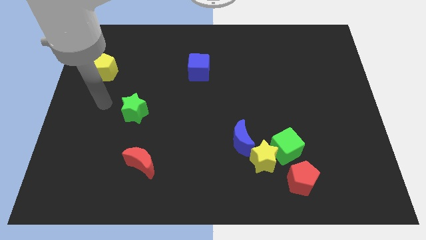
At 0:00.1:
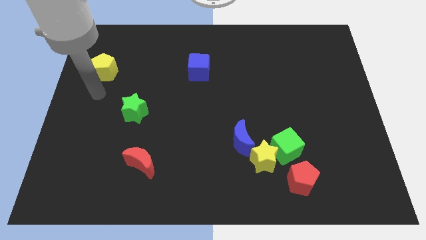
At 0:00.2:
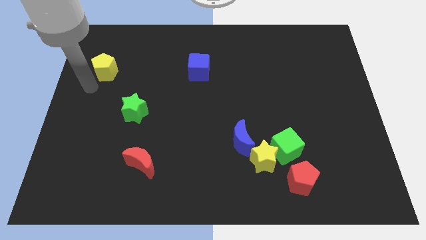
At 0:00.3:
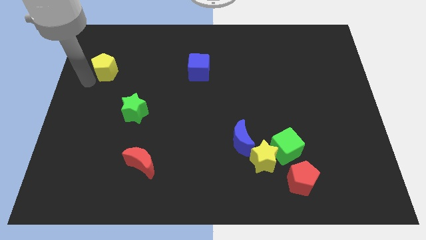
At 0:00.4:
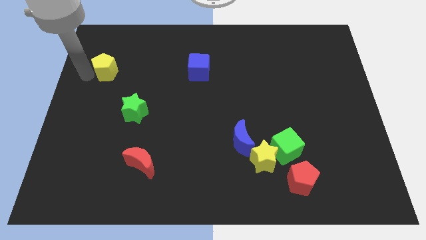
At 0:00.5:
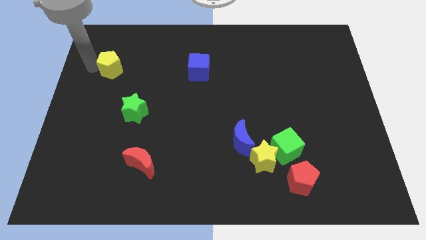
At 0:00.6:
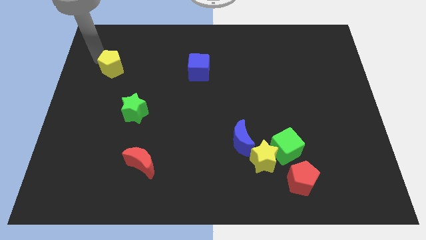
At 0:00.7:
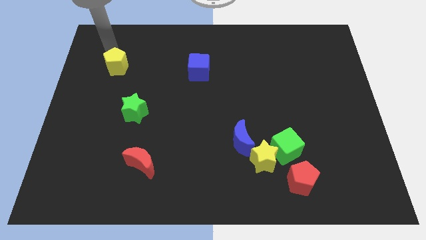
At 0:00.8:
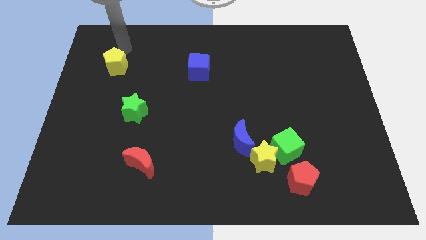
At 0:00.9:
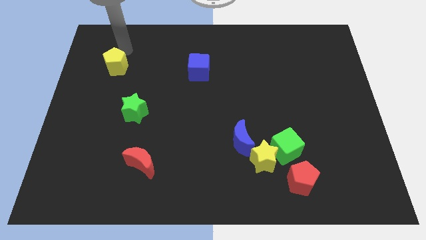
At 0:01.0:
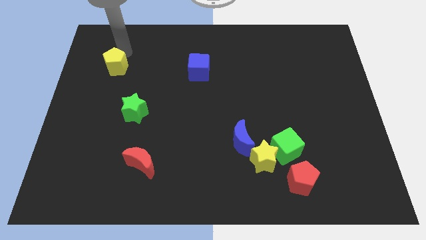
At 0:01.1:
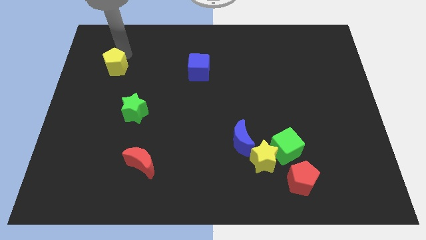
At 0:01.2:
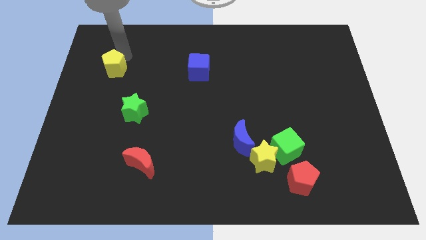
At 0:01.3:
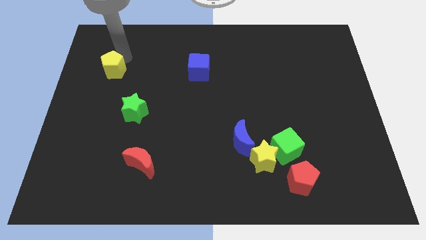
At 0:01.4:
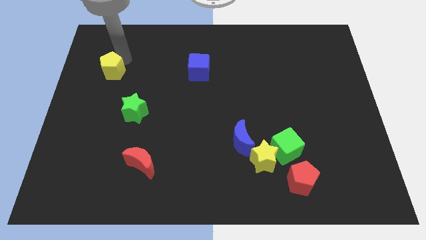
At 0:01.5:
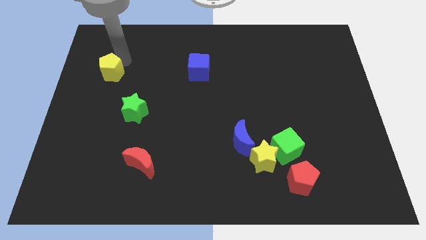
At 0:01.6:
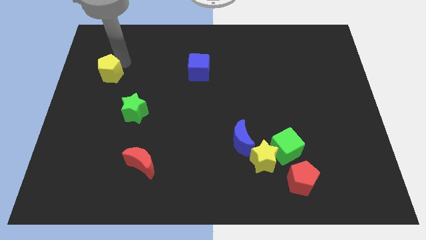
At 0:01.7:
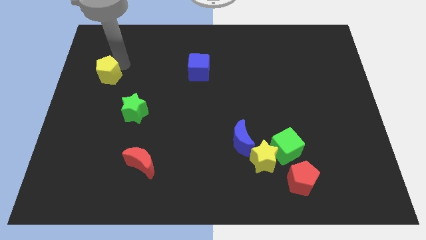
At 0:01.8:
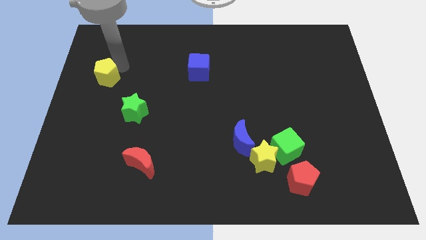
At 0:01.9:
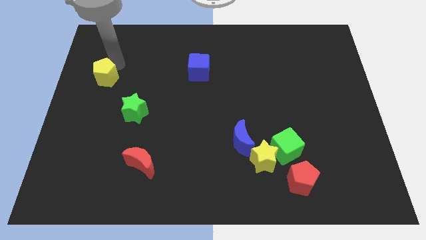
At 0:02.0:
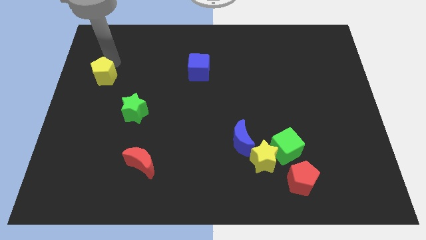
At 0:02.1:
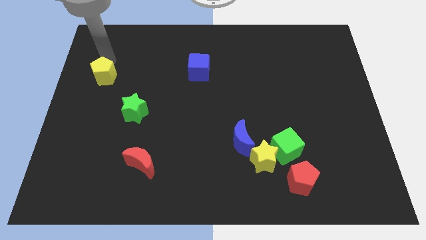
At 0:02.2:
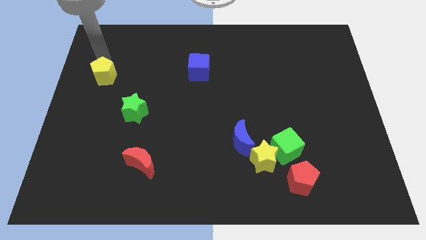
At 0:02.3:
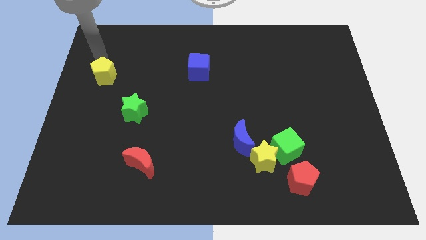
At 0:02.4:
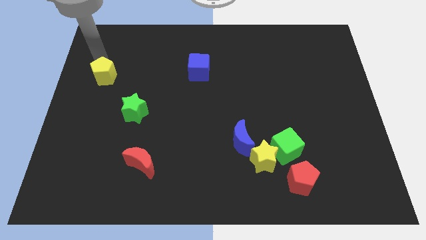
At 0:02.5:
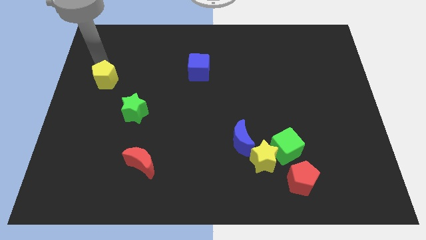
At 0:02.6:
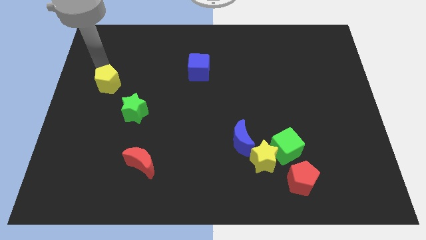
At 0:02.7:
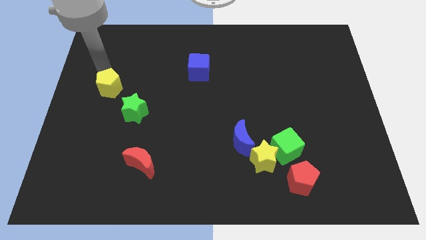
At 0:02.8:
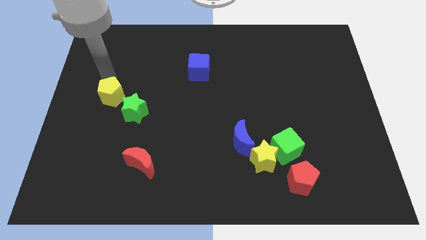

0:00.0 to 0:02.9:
slightly push the yellow pentagon downwards

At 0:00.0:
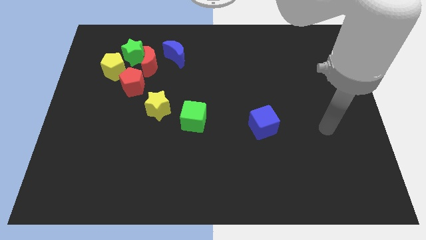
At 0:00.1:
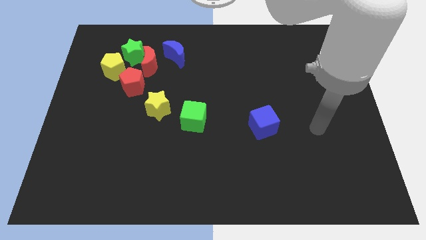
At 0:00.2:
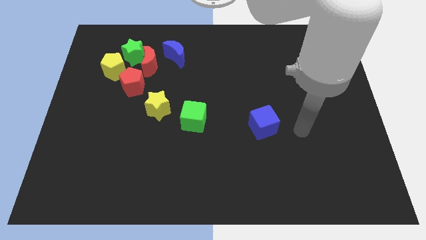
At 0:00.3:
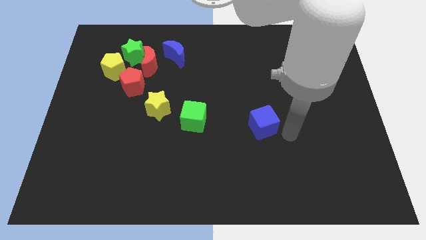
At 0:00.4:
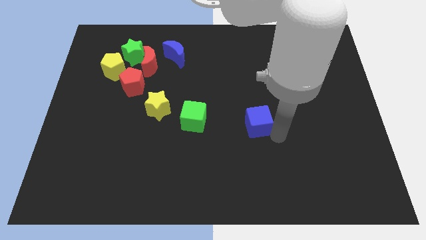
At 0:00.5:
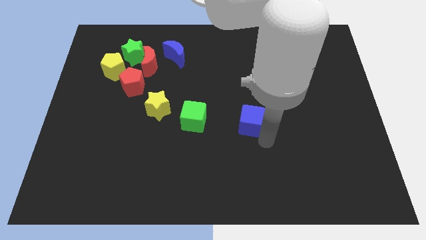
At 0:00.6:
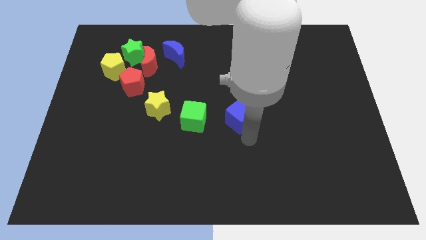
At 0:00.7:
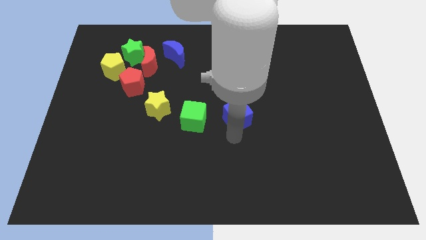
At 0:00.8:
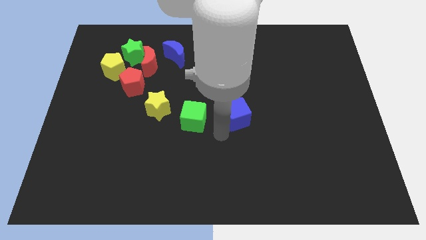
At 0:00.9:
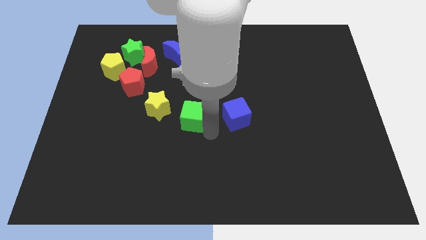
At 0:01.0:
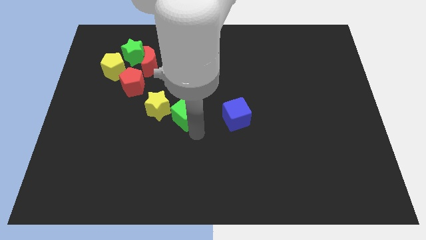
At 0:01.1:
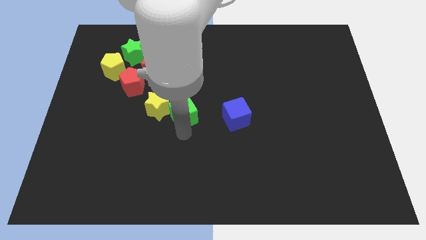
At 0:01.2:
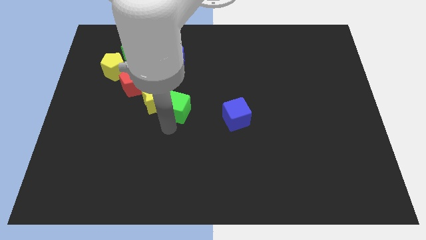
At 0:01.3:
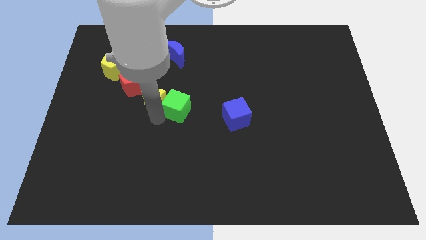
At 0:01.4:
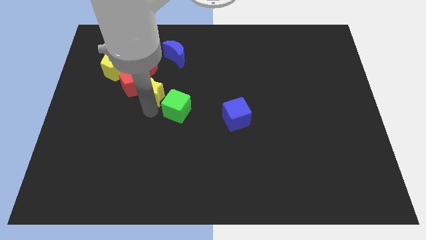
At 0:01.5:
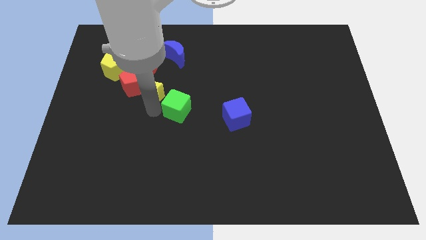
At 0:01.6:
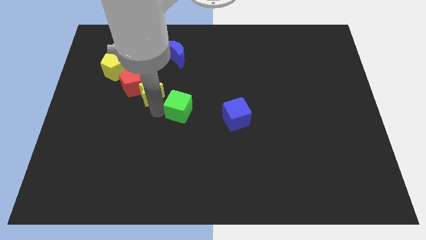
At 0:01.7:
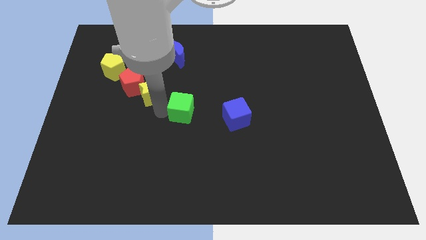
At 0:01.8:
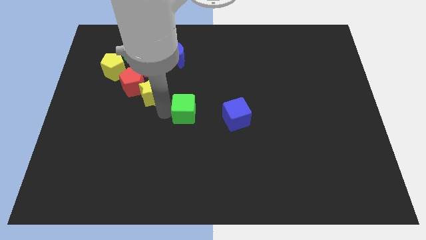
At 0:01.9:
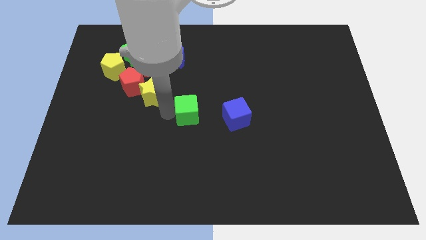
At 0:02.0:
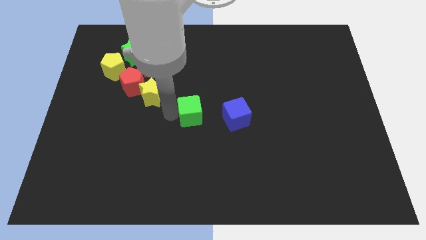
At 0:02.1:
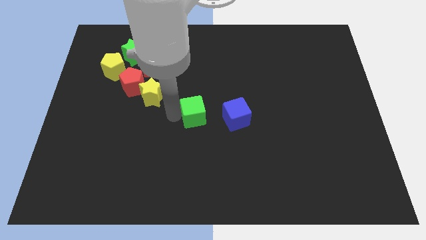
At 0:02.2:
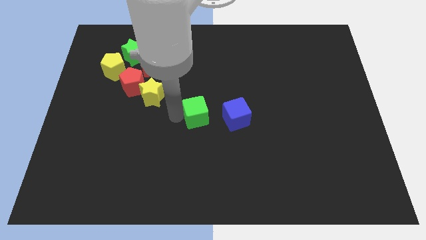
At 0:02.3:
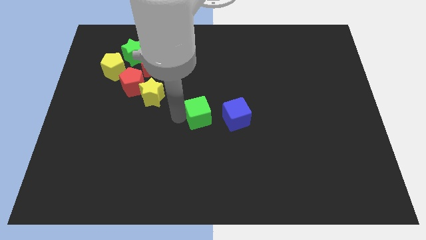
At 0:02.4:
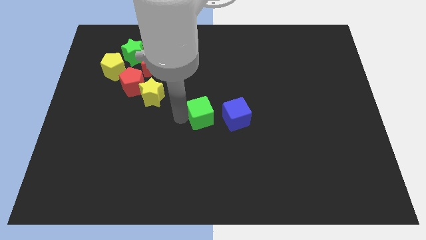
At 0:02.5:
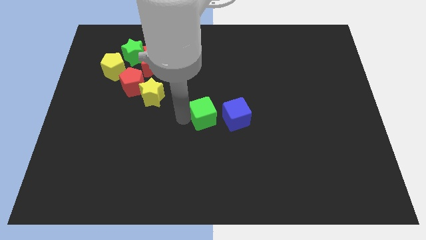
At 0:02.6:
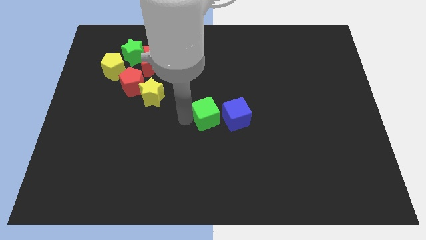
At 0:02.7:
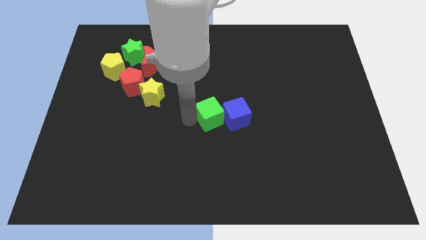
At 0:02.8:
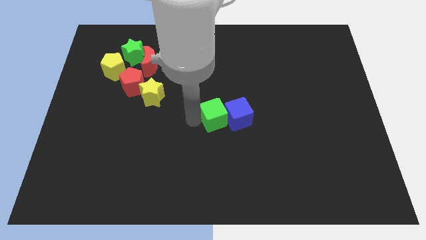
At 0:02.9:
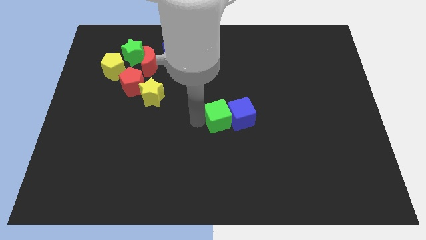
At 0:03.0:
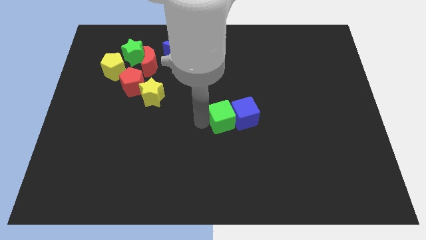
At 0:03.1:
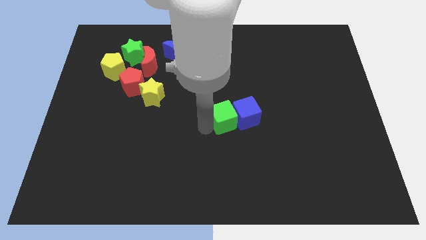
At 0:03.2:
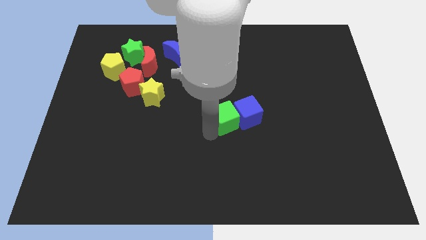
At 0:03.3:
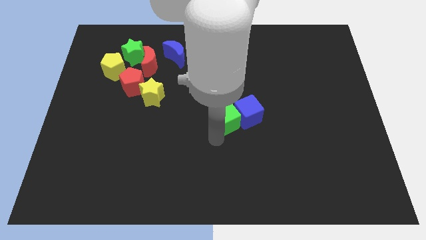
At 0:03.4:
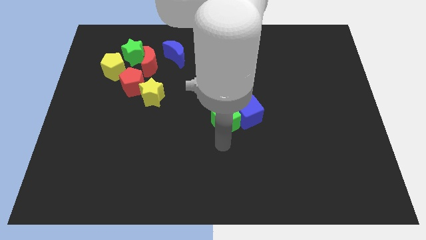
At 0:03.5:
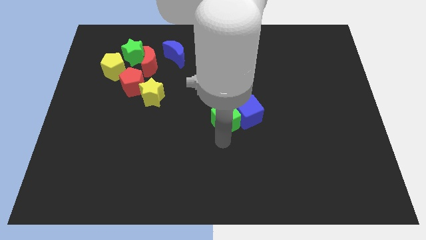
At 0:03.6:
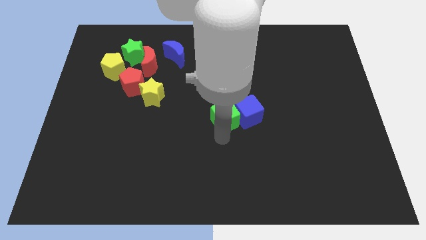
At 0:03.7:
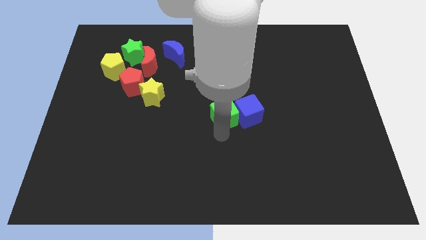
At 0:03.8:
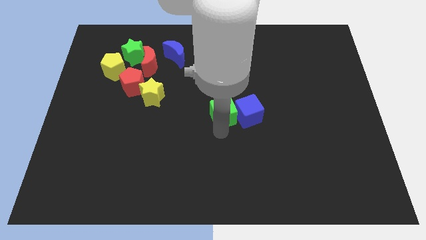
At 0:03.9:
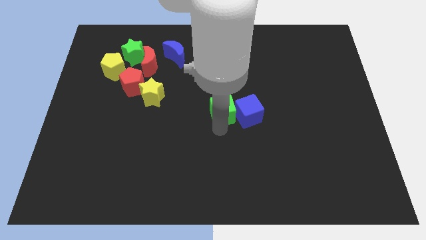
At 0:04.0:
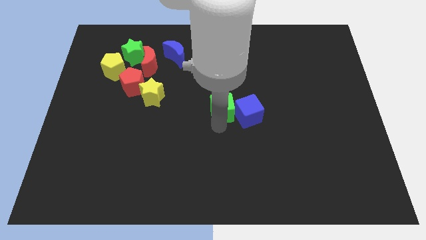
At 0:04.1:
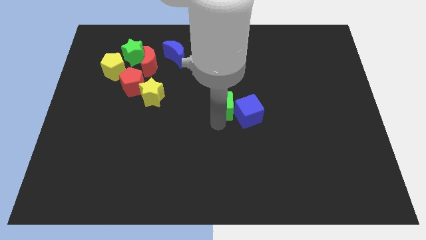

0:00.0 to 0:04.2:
push the green cube up and right diagonally a little

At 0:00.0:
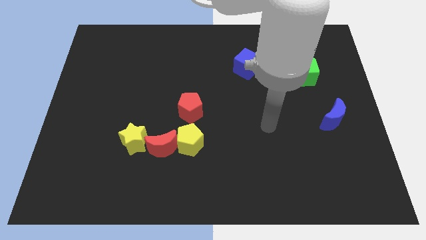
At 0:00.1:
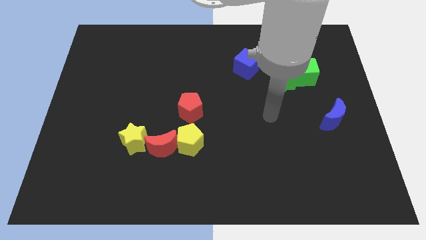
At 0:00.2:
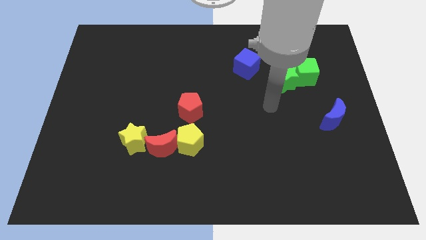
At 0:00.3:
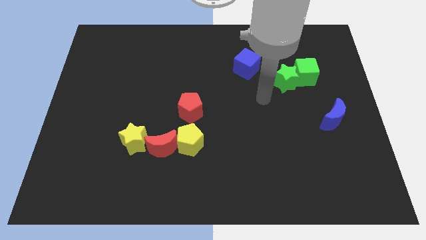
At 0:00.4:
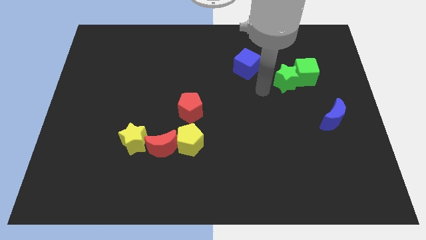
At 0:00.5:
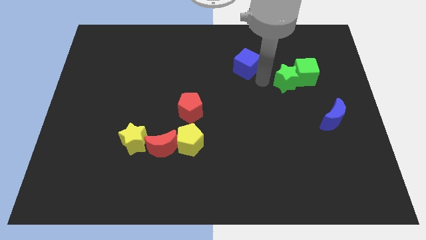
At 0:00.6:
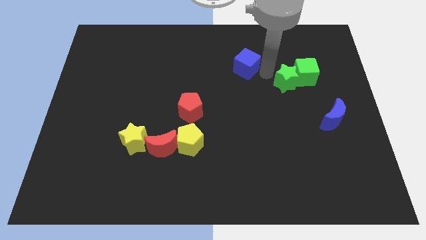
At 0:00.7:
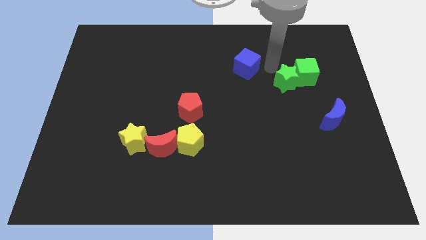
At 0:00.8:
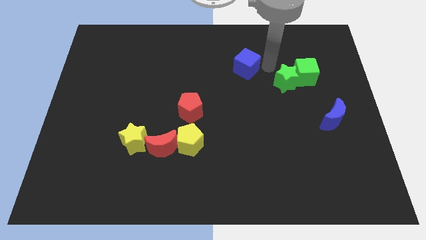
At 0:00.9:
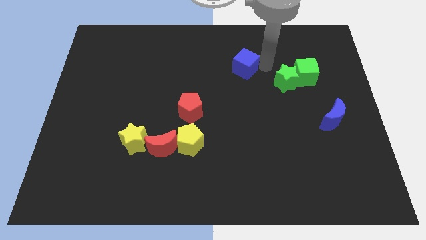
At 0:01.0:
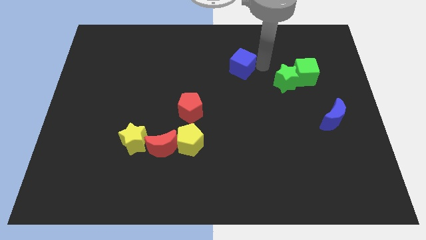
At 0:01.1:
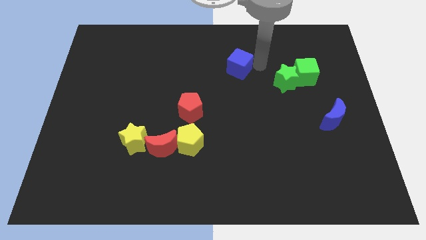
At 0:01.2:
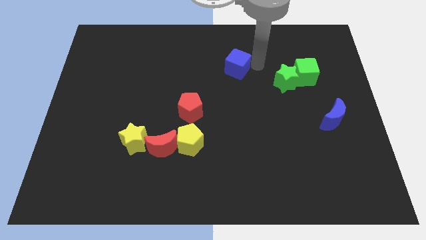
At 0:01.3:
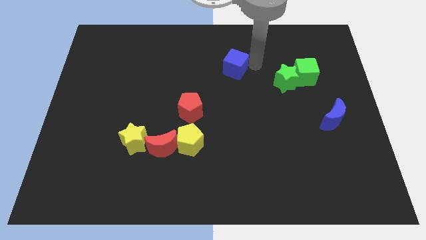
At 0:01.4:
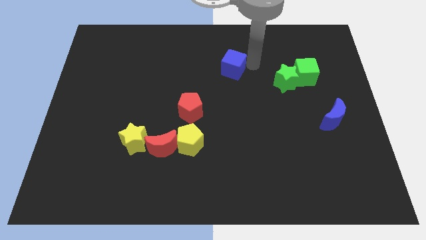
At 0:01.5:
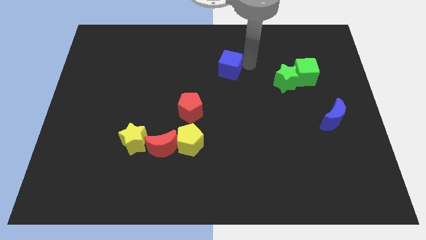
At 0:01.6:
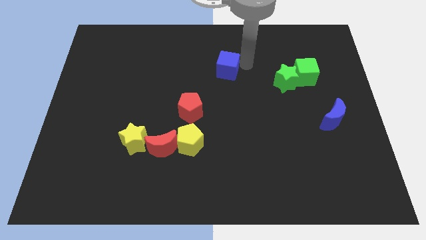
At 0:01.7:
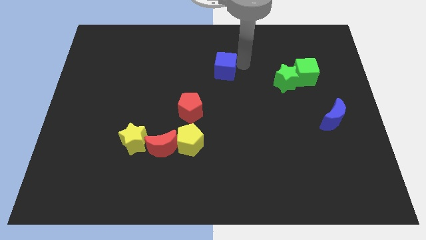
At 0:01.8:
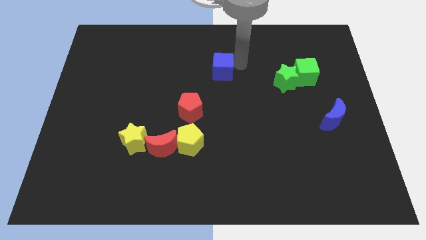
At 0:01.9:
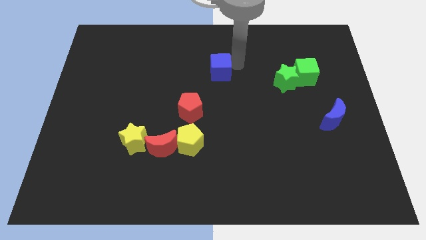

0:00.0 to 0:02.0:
slide the blue cube a little bit left
